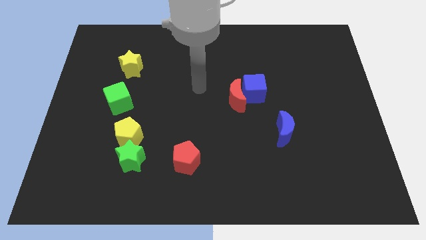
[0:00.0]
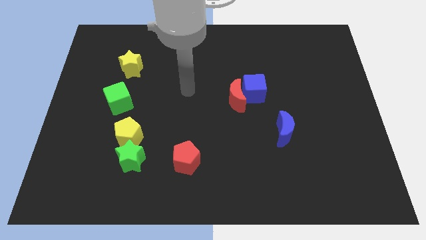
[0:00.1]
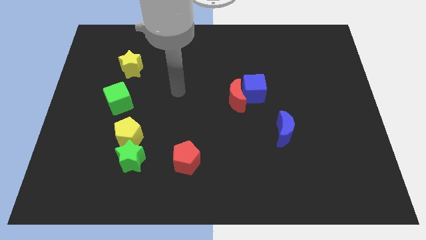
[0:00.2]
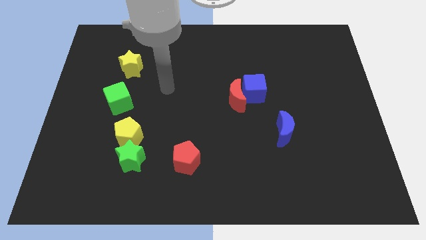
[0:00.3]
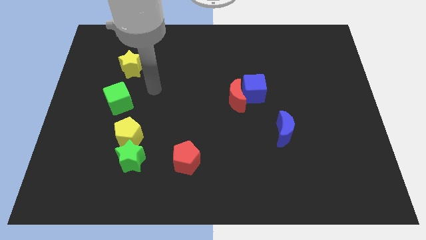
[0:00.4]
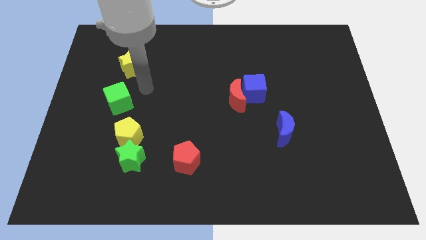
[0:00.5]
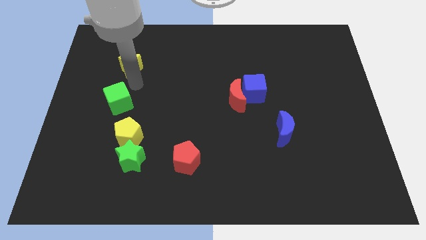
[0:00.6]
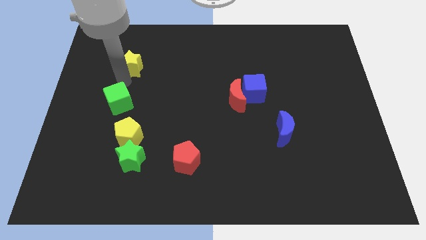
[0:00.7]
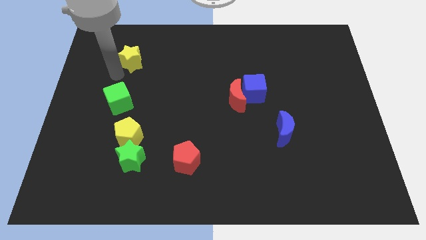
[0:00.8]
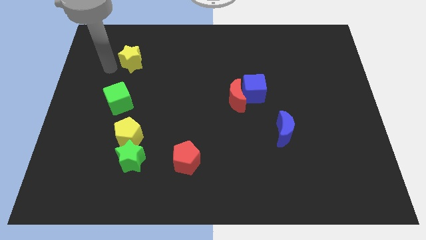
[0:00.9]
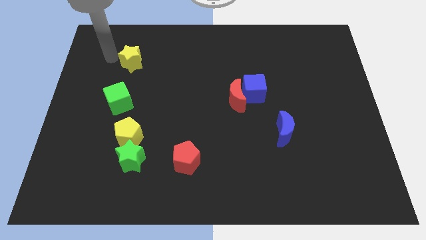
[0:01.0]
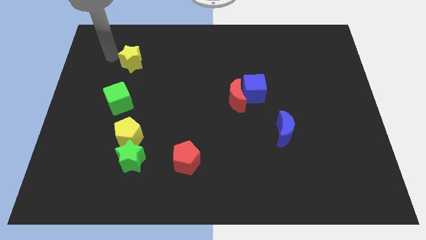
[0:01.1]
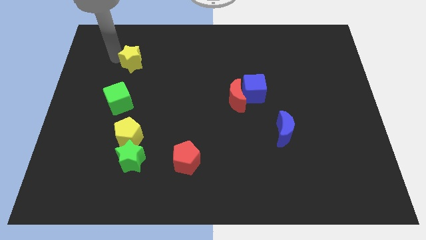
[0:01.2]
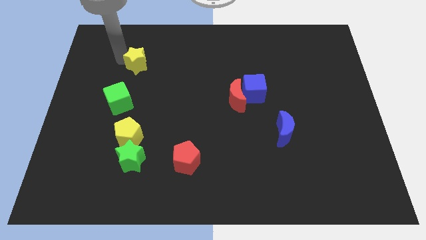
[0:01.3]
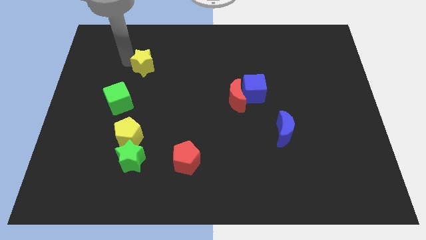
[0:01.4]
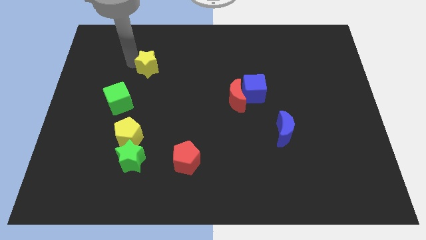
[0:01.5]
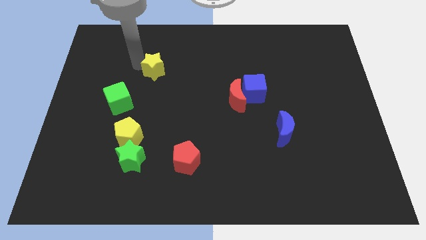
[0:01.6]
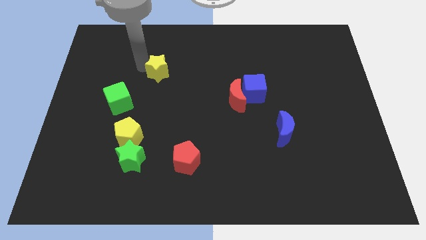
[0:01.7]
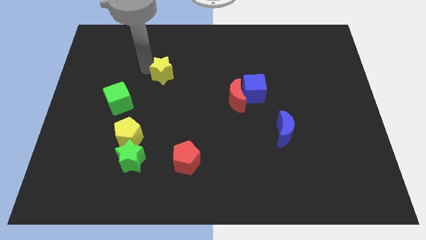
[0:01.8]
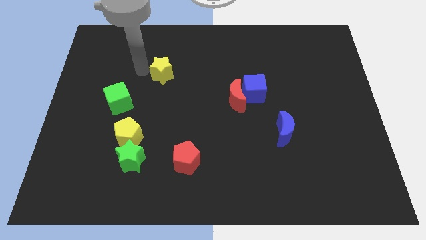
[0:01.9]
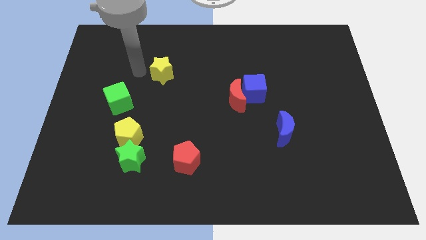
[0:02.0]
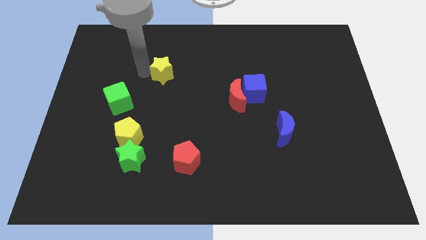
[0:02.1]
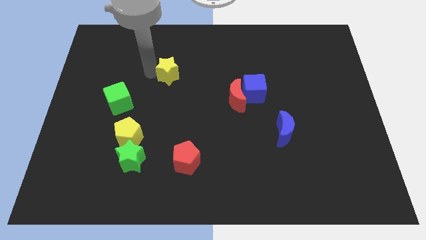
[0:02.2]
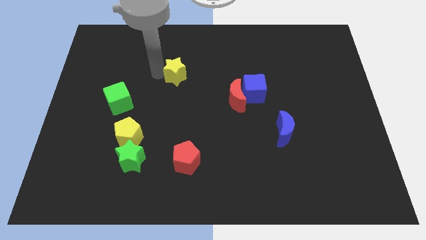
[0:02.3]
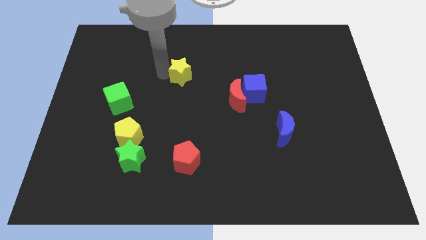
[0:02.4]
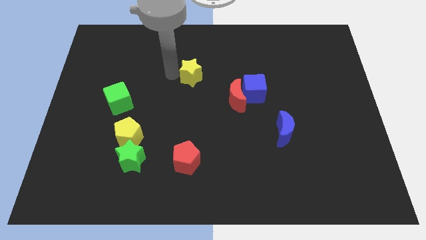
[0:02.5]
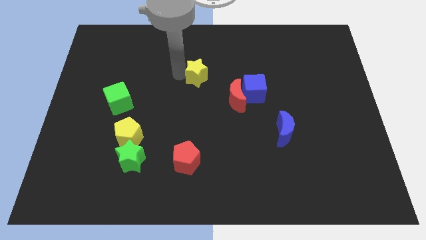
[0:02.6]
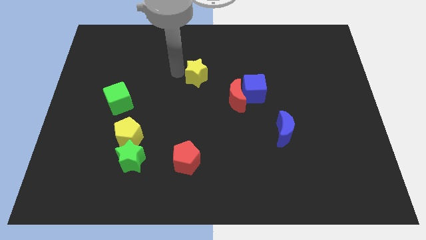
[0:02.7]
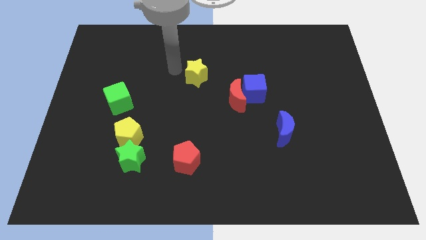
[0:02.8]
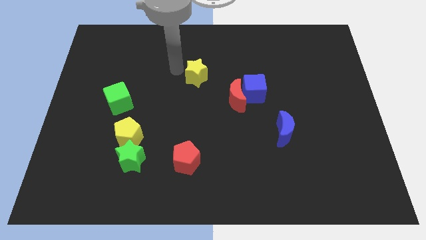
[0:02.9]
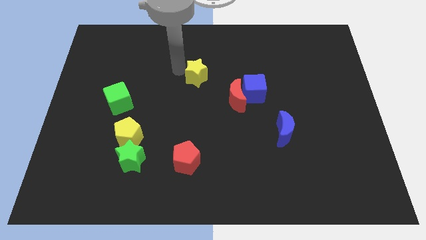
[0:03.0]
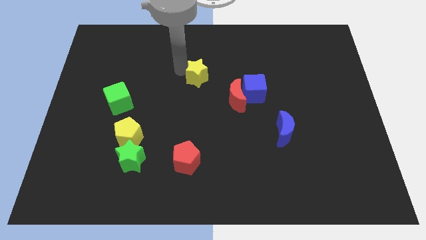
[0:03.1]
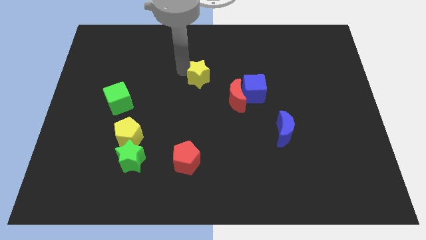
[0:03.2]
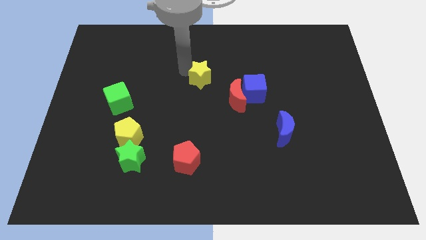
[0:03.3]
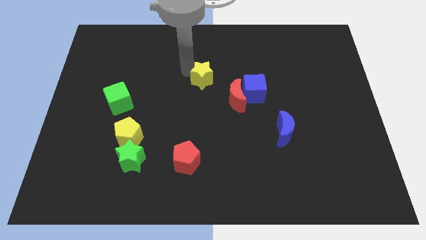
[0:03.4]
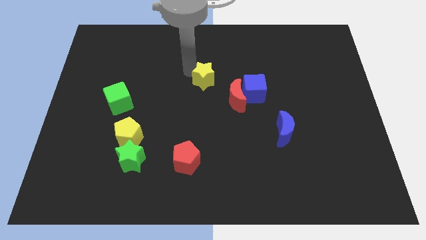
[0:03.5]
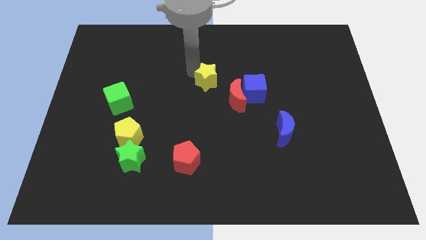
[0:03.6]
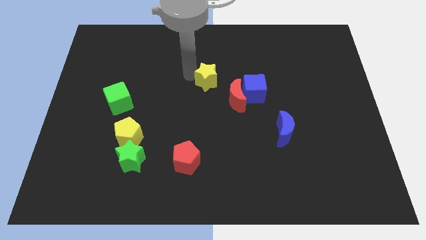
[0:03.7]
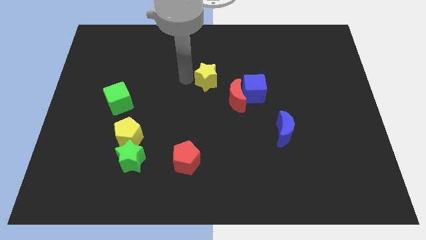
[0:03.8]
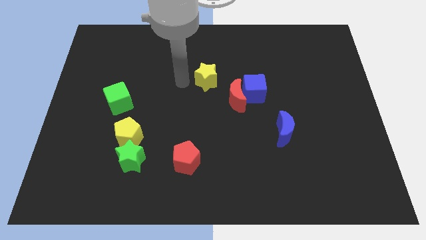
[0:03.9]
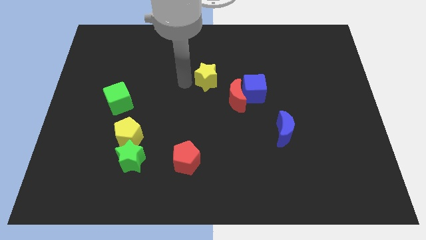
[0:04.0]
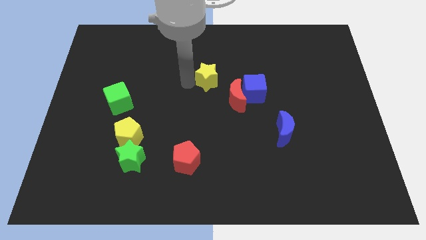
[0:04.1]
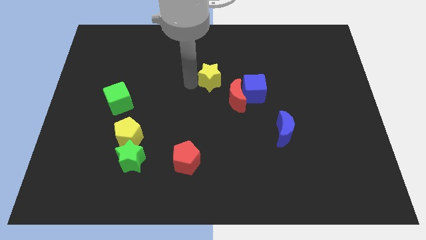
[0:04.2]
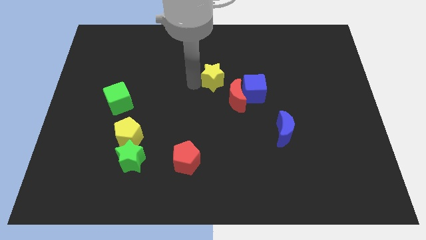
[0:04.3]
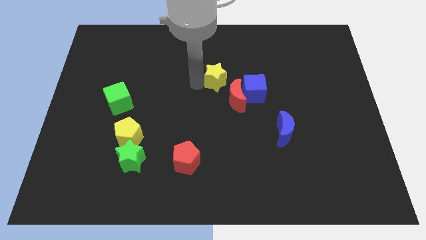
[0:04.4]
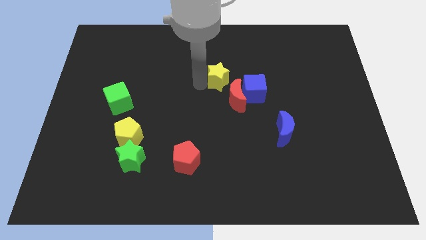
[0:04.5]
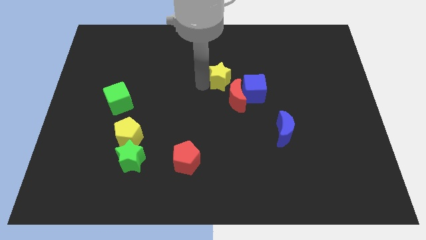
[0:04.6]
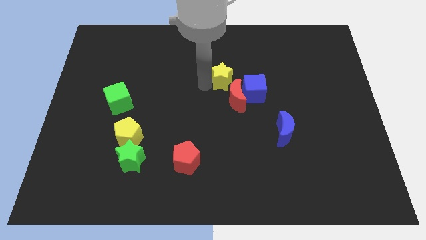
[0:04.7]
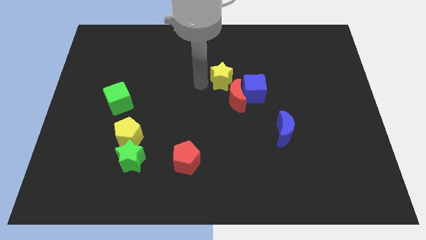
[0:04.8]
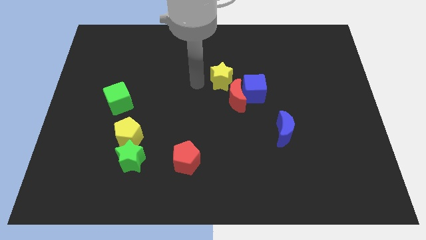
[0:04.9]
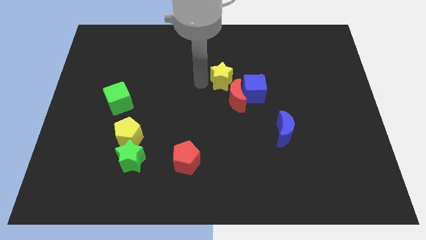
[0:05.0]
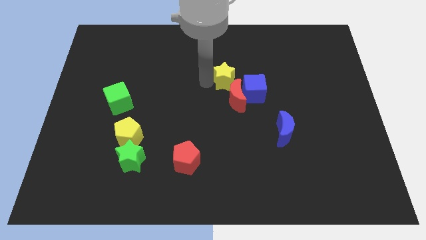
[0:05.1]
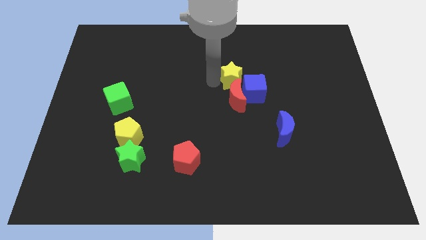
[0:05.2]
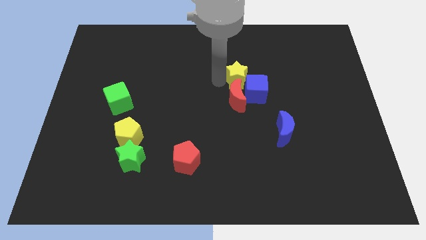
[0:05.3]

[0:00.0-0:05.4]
put the yellow star towards the blue cube

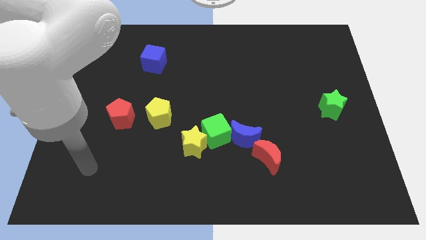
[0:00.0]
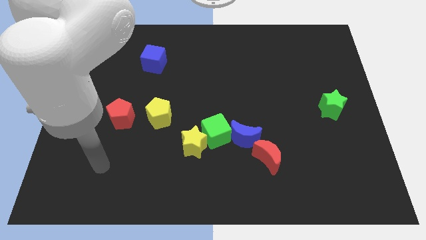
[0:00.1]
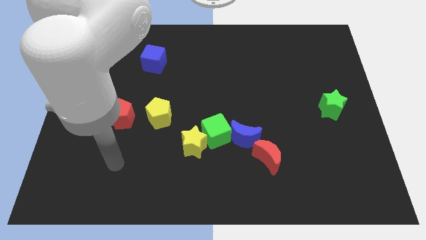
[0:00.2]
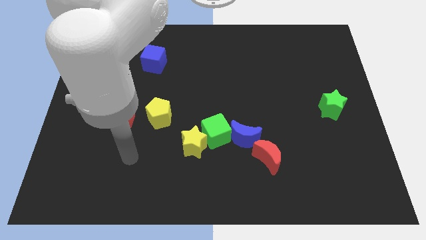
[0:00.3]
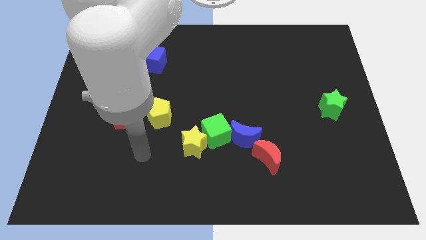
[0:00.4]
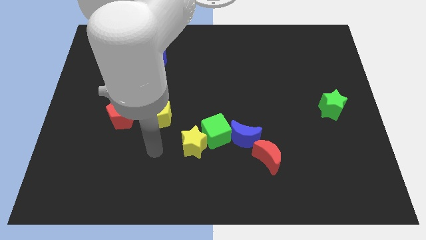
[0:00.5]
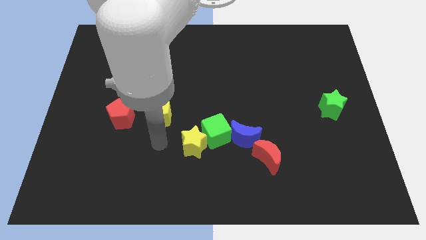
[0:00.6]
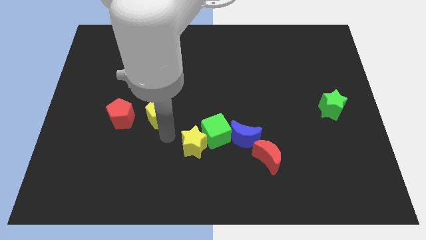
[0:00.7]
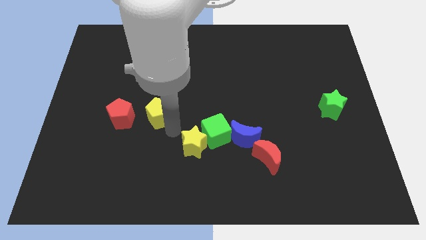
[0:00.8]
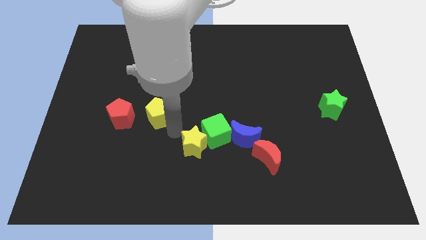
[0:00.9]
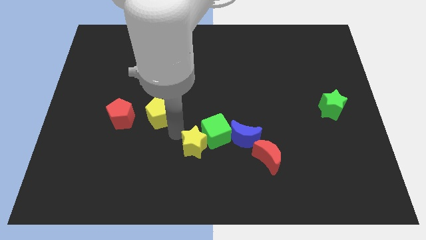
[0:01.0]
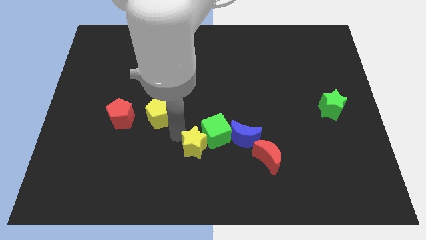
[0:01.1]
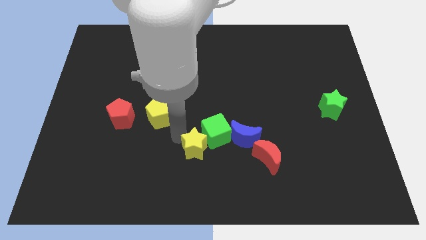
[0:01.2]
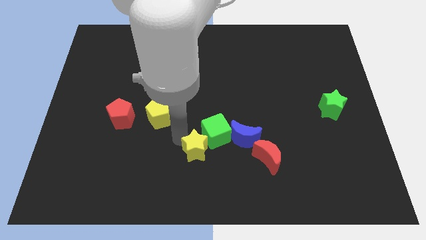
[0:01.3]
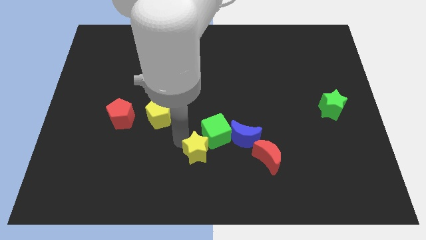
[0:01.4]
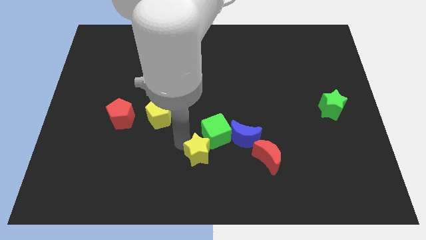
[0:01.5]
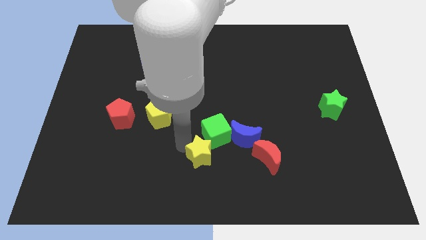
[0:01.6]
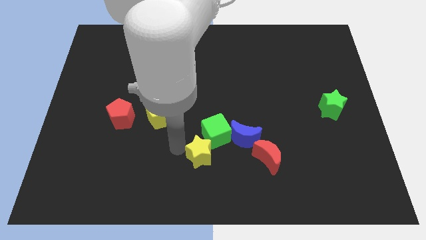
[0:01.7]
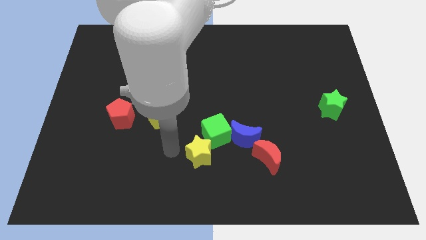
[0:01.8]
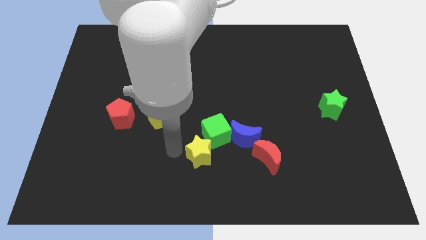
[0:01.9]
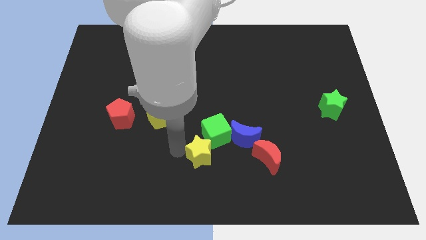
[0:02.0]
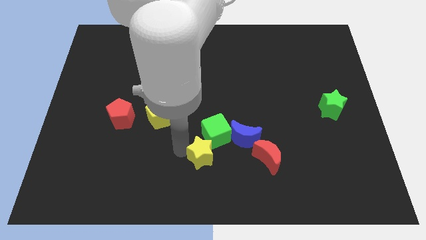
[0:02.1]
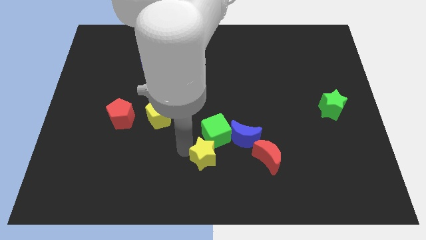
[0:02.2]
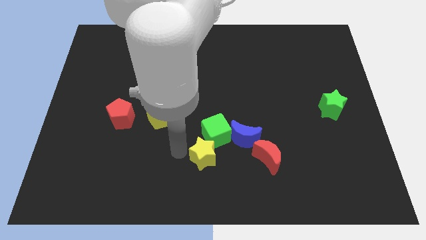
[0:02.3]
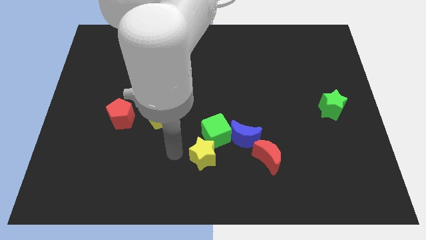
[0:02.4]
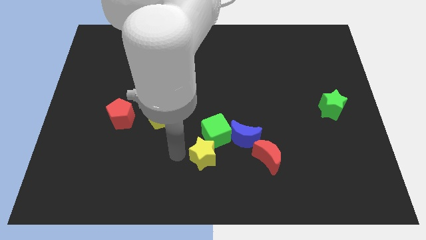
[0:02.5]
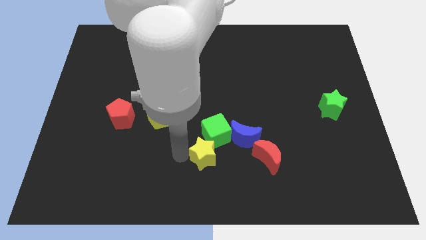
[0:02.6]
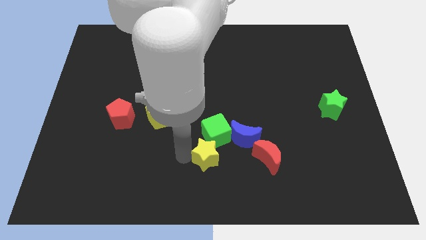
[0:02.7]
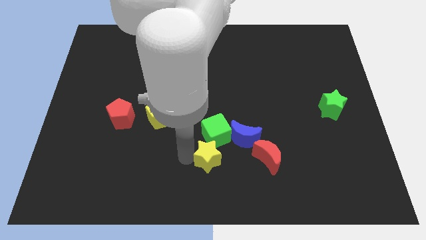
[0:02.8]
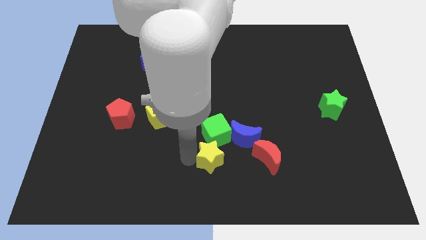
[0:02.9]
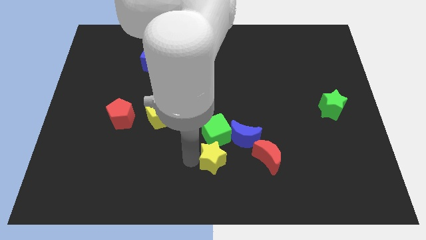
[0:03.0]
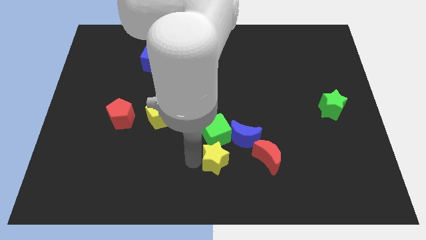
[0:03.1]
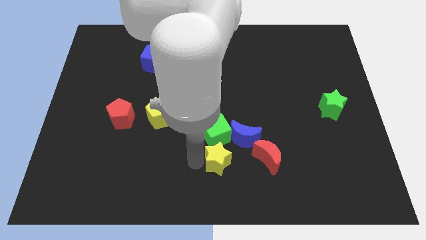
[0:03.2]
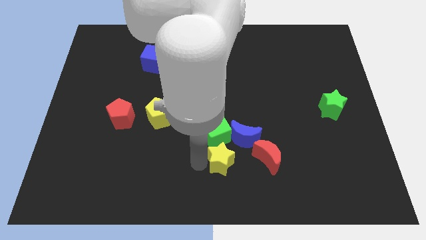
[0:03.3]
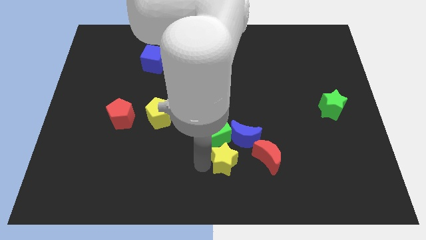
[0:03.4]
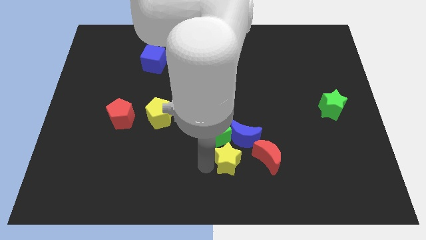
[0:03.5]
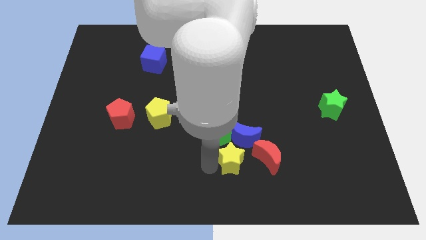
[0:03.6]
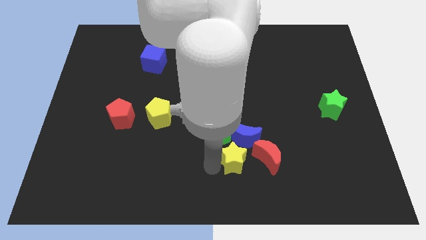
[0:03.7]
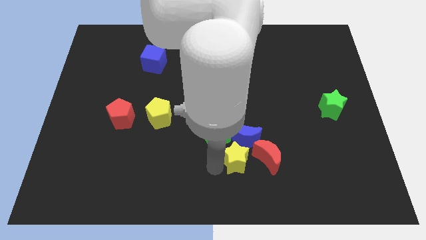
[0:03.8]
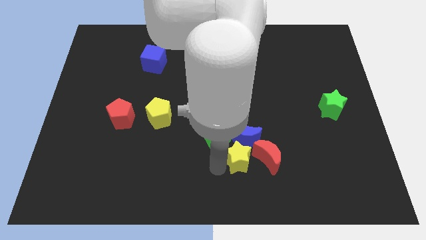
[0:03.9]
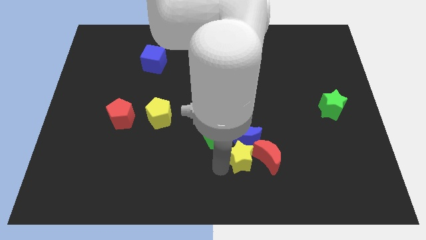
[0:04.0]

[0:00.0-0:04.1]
put the yellow star next to the red moon
